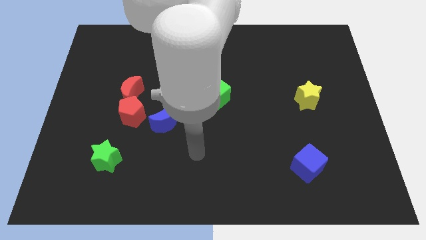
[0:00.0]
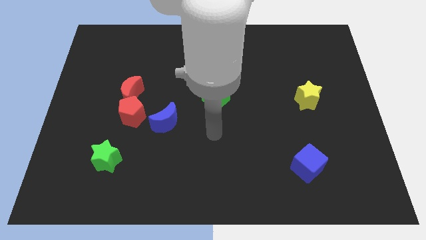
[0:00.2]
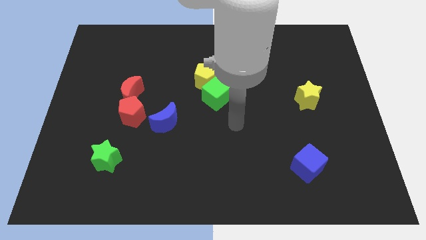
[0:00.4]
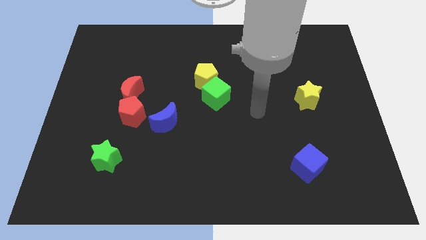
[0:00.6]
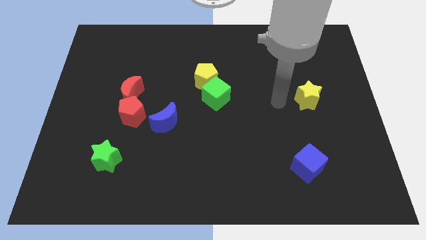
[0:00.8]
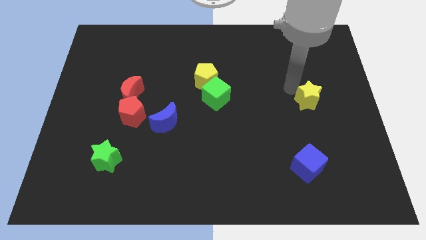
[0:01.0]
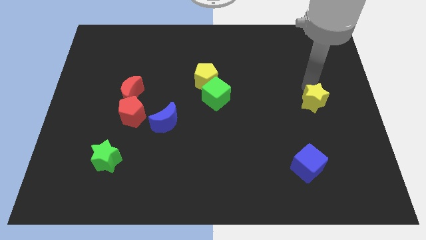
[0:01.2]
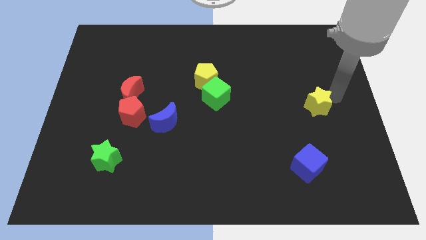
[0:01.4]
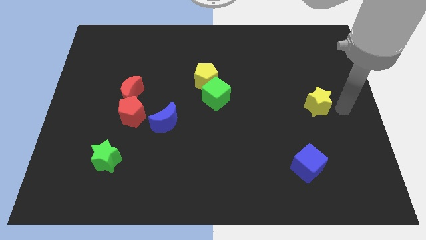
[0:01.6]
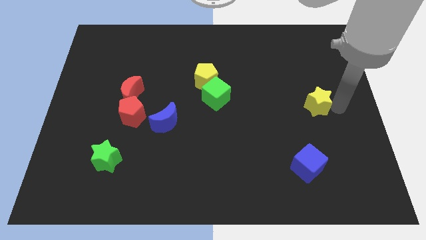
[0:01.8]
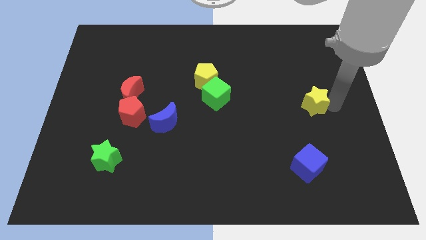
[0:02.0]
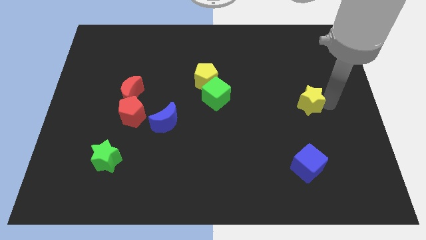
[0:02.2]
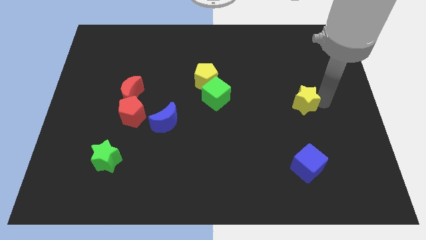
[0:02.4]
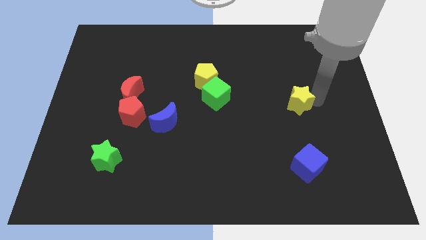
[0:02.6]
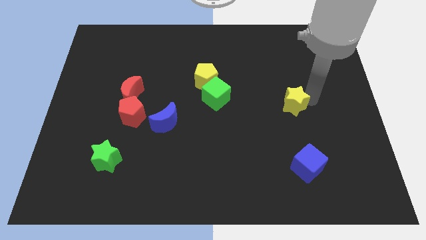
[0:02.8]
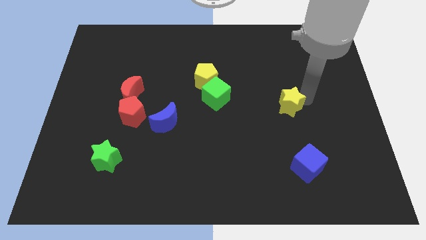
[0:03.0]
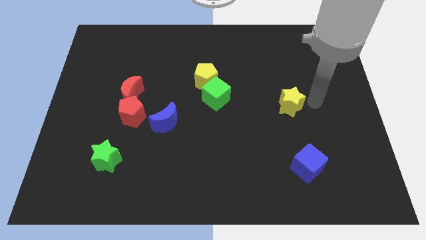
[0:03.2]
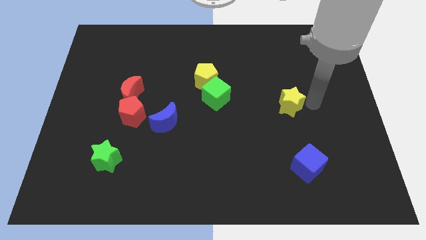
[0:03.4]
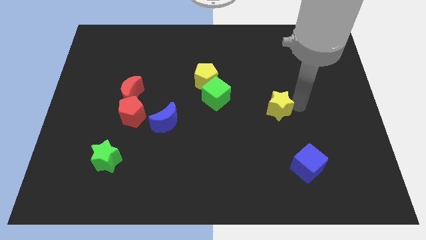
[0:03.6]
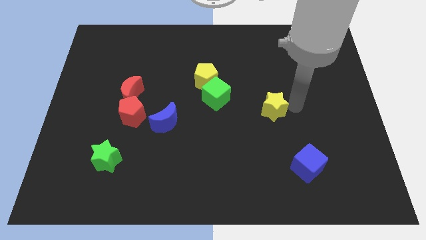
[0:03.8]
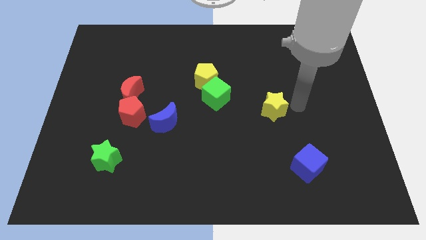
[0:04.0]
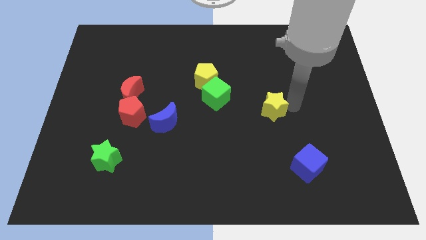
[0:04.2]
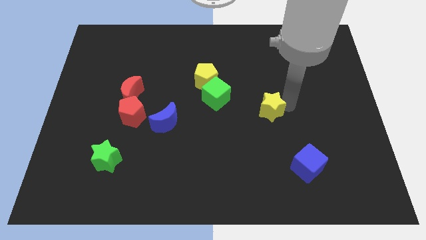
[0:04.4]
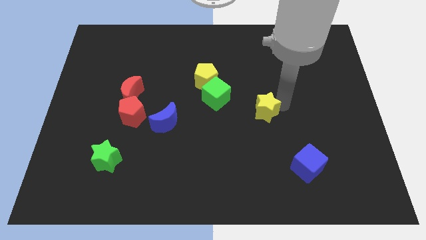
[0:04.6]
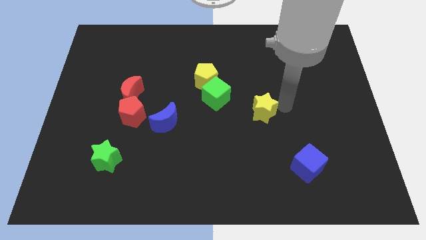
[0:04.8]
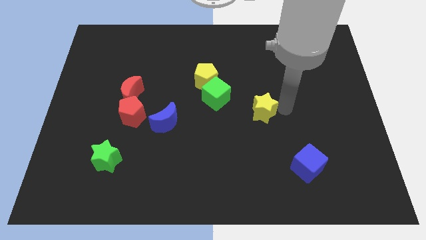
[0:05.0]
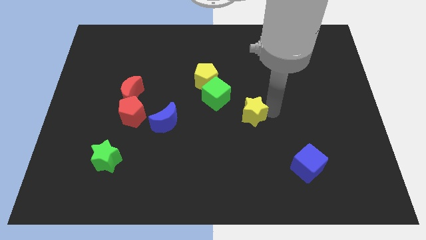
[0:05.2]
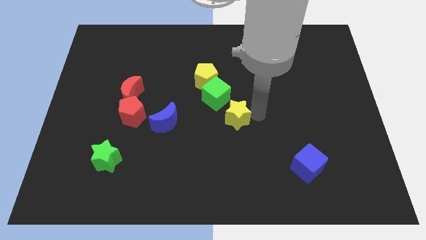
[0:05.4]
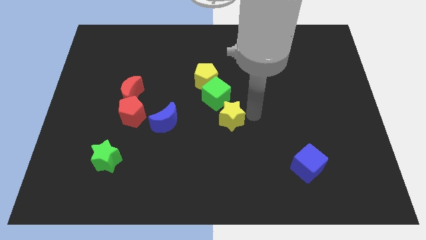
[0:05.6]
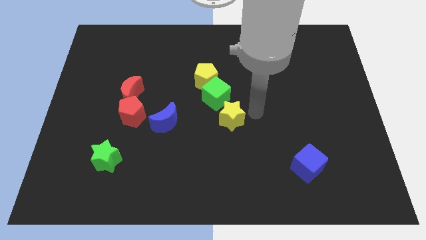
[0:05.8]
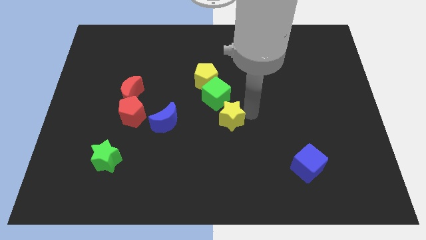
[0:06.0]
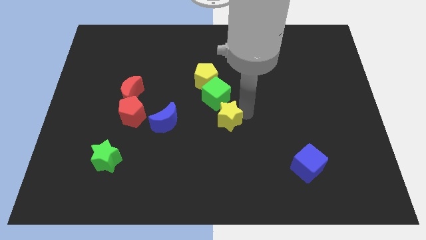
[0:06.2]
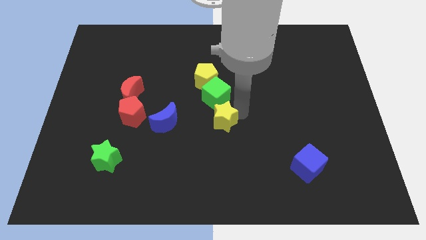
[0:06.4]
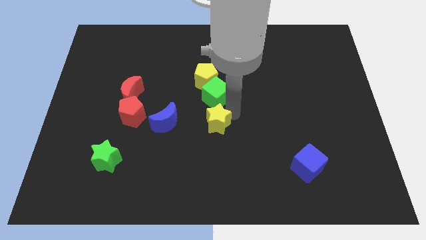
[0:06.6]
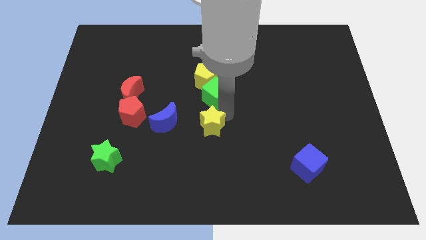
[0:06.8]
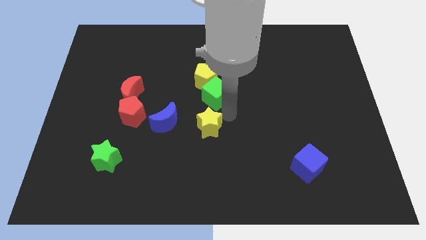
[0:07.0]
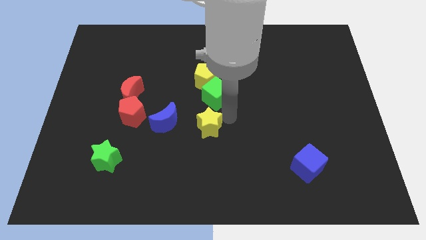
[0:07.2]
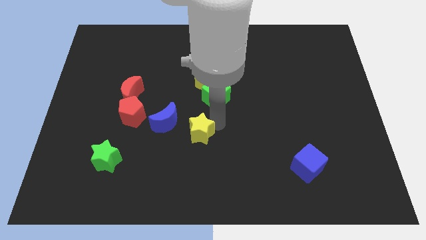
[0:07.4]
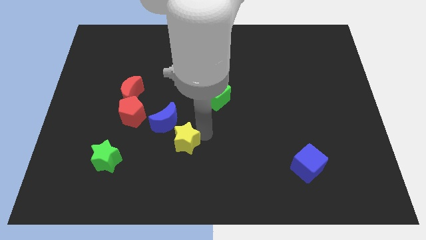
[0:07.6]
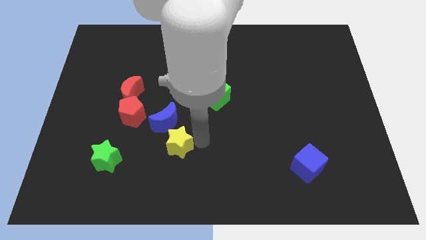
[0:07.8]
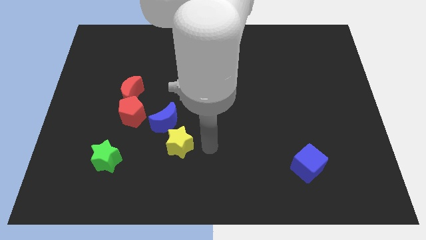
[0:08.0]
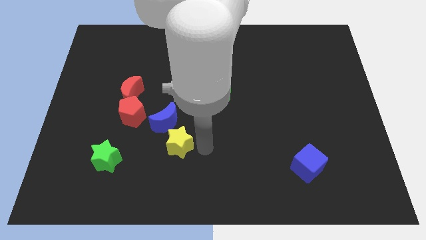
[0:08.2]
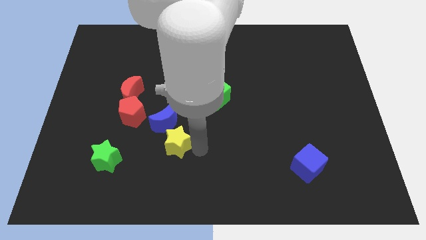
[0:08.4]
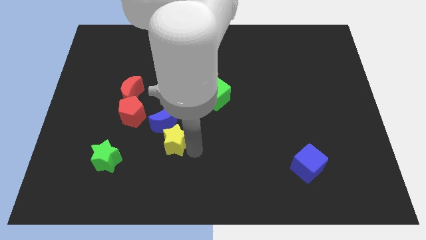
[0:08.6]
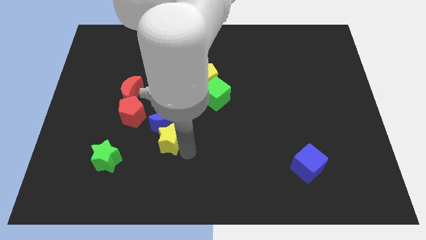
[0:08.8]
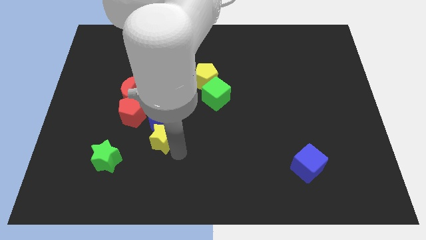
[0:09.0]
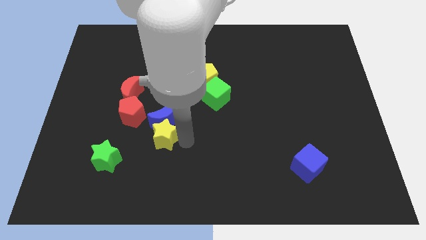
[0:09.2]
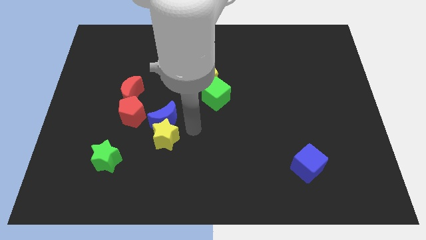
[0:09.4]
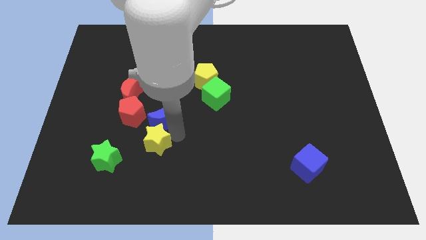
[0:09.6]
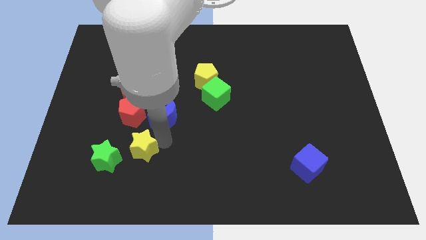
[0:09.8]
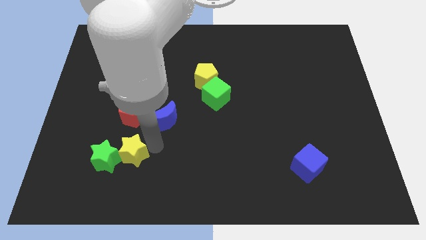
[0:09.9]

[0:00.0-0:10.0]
put the yellow star to the green star

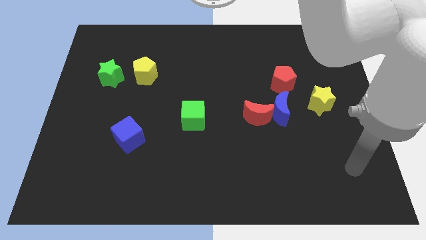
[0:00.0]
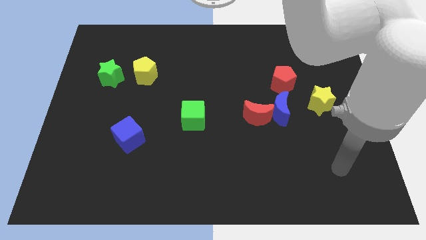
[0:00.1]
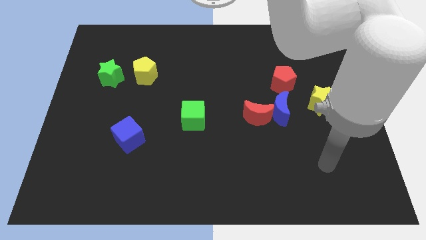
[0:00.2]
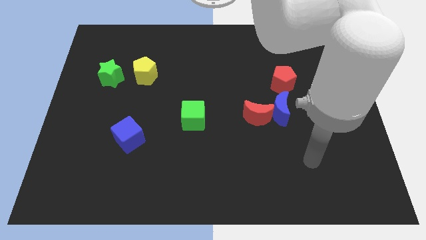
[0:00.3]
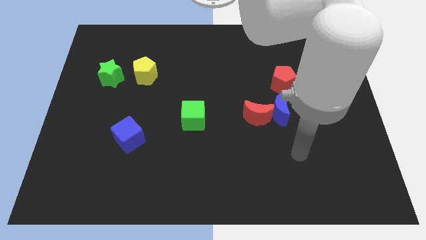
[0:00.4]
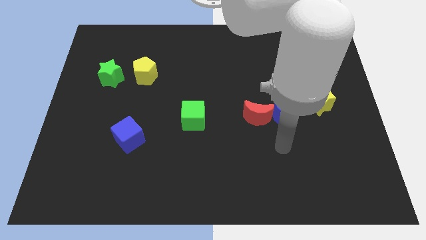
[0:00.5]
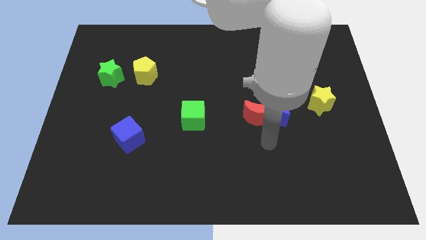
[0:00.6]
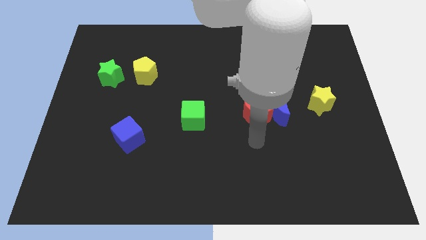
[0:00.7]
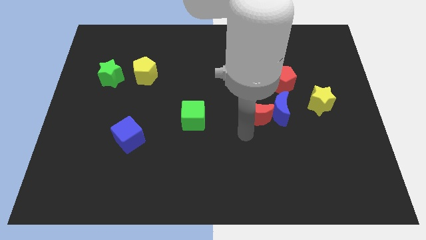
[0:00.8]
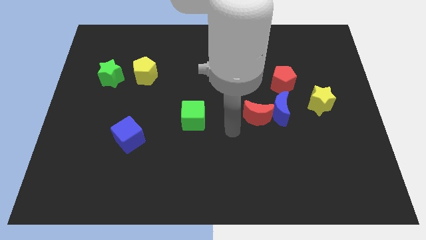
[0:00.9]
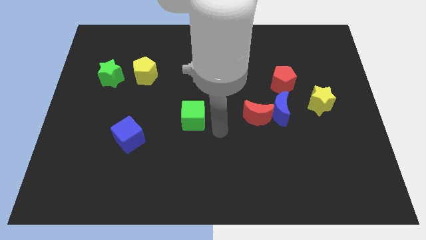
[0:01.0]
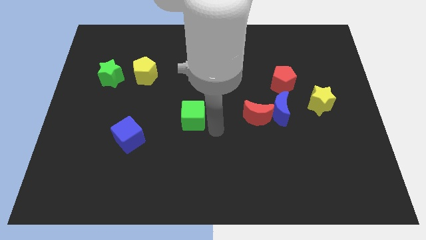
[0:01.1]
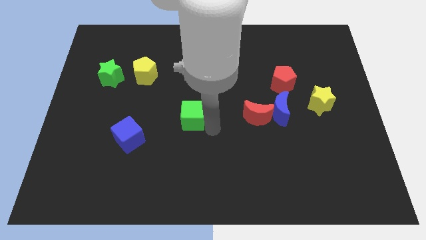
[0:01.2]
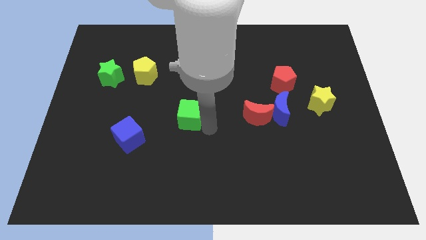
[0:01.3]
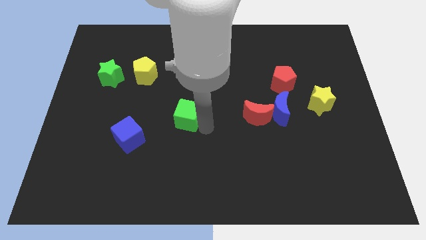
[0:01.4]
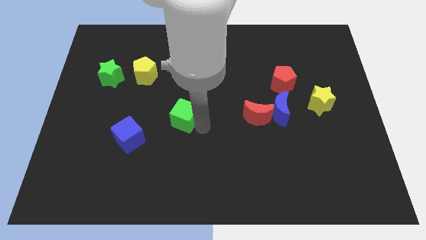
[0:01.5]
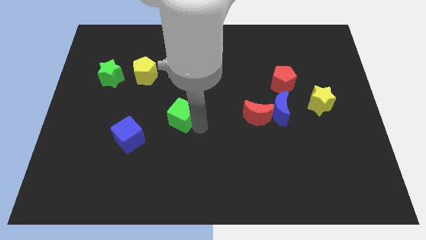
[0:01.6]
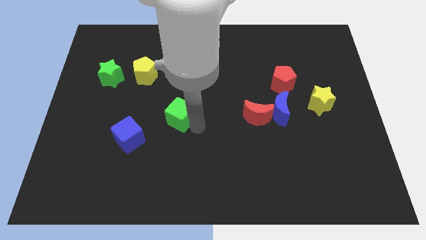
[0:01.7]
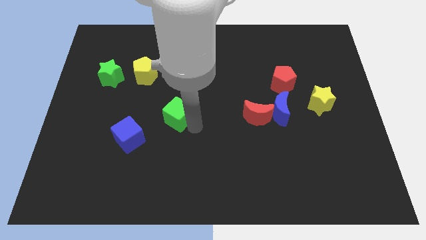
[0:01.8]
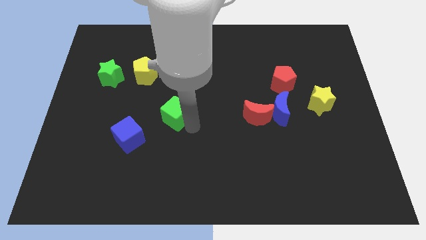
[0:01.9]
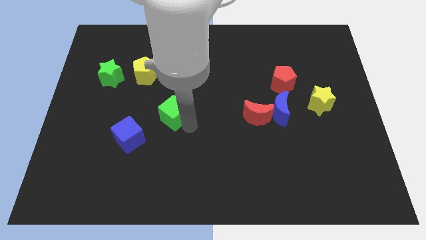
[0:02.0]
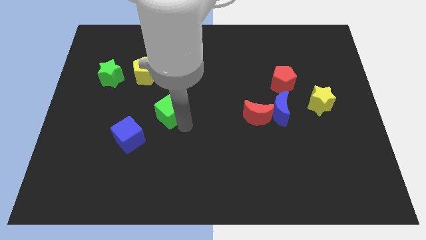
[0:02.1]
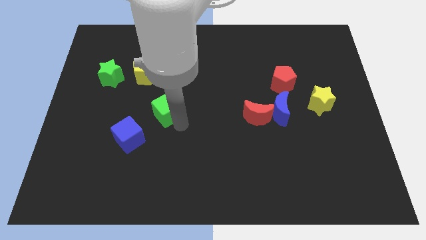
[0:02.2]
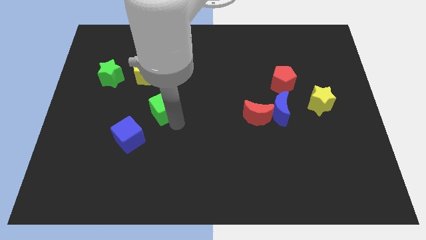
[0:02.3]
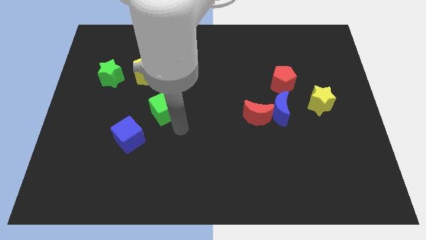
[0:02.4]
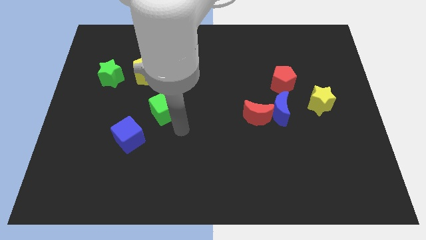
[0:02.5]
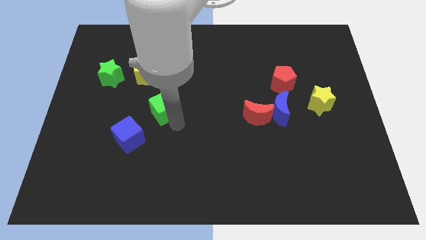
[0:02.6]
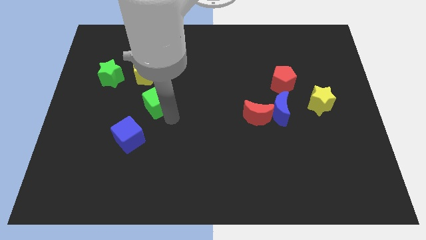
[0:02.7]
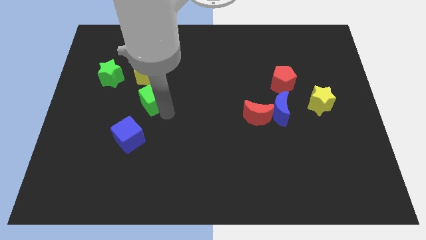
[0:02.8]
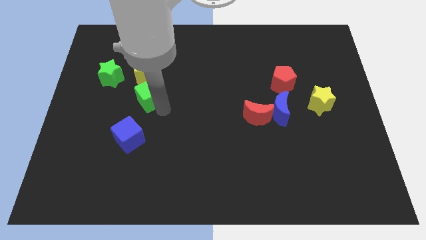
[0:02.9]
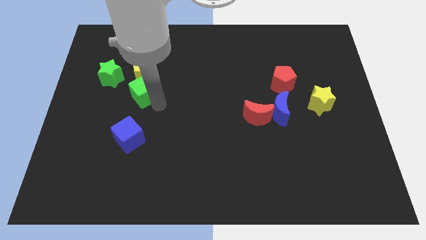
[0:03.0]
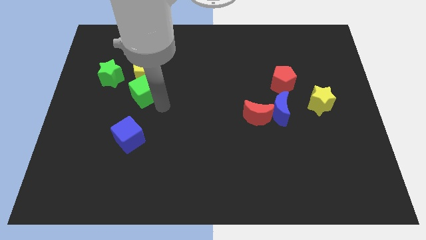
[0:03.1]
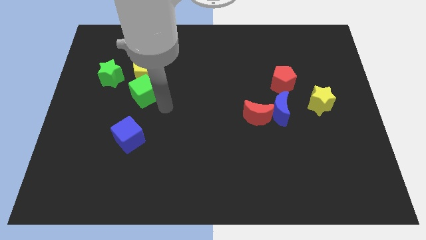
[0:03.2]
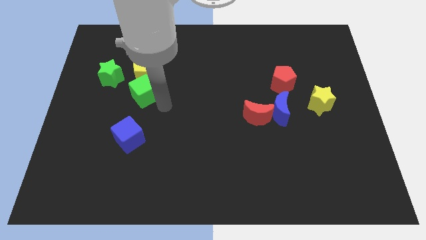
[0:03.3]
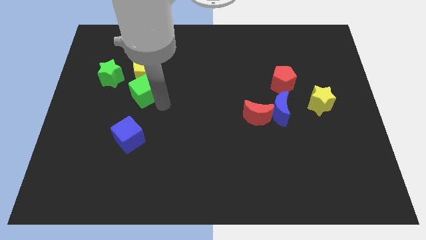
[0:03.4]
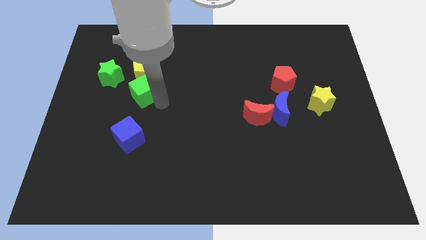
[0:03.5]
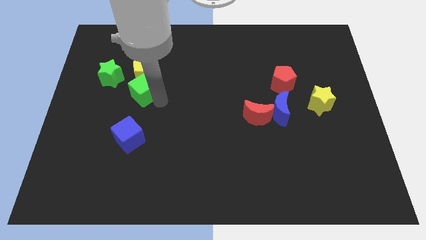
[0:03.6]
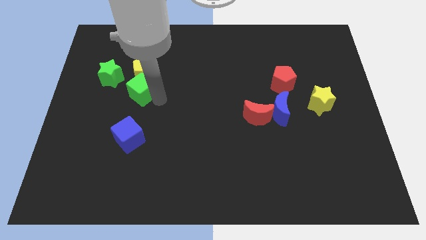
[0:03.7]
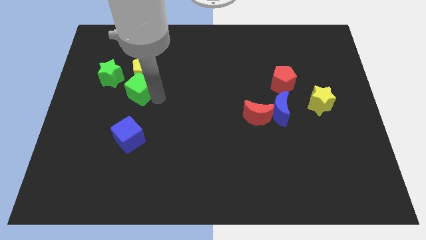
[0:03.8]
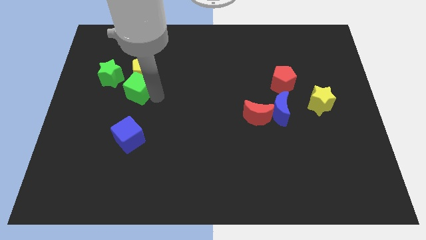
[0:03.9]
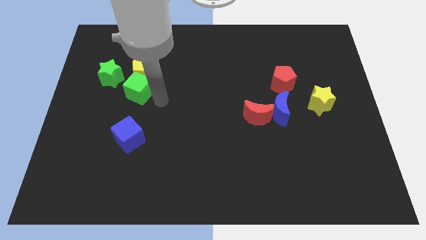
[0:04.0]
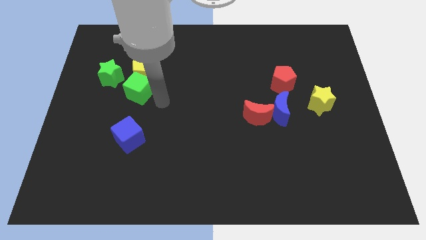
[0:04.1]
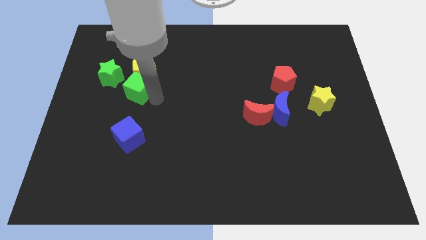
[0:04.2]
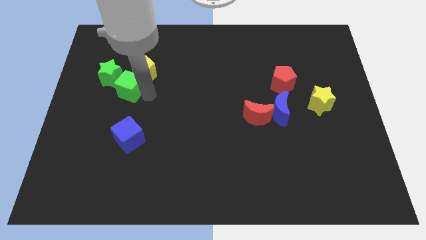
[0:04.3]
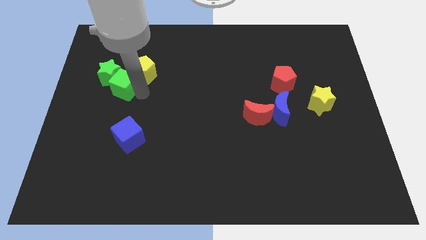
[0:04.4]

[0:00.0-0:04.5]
move the green cube close to the green star
